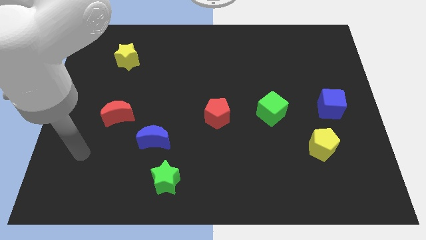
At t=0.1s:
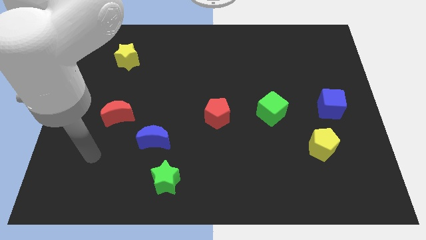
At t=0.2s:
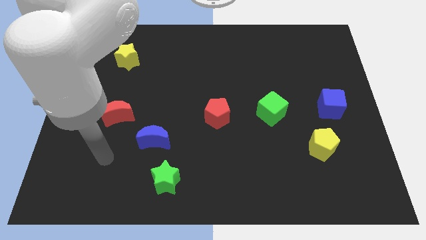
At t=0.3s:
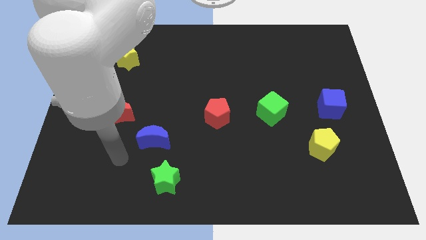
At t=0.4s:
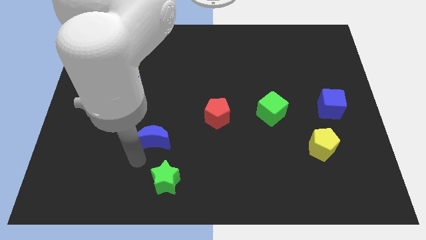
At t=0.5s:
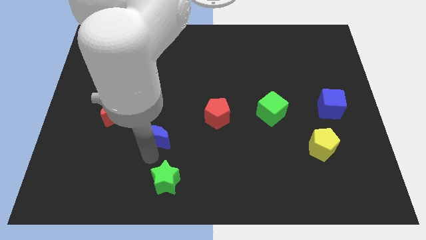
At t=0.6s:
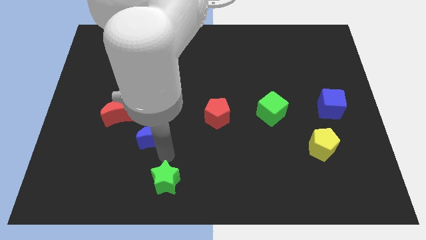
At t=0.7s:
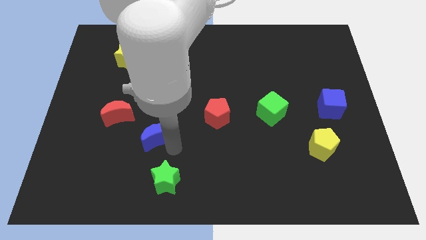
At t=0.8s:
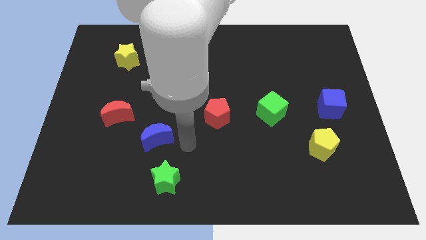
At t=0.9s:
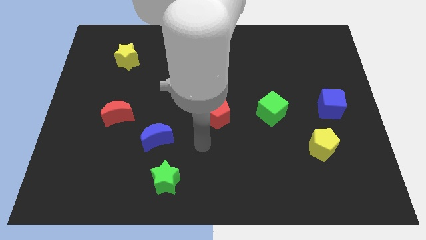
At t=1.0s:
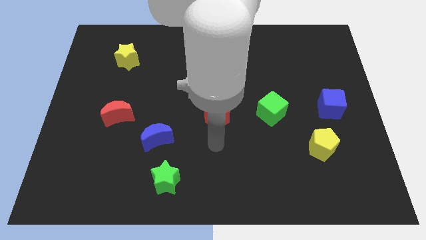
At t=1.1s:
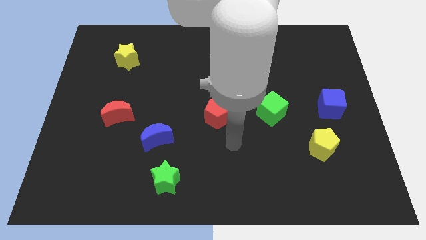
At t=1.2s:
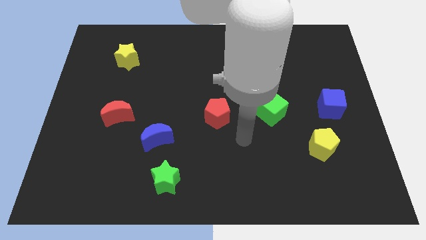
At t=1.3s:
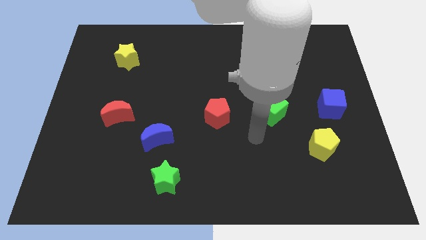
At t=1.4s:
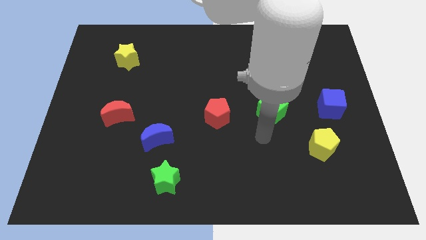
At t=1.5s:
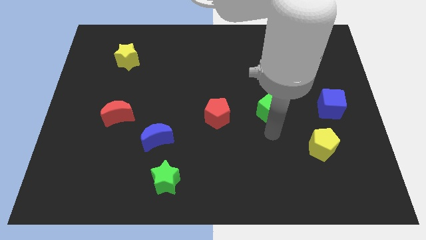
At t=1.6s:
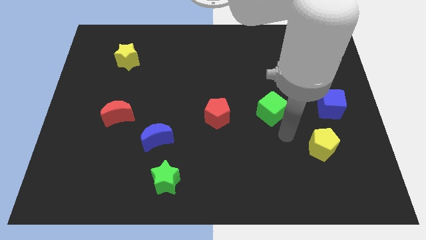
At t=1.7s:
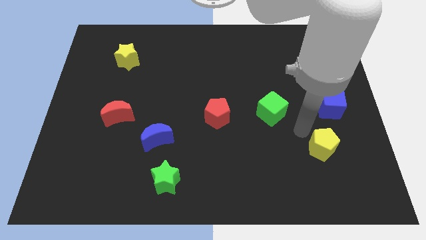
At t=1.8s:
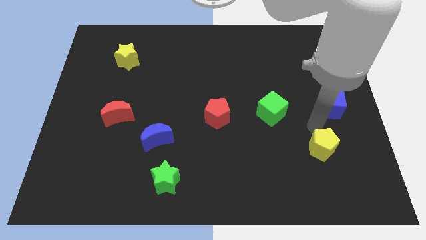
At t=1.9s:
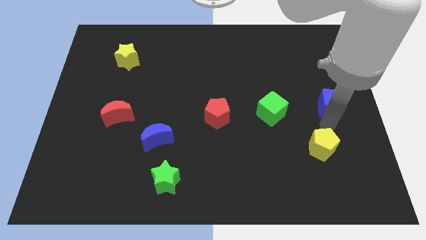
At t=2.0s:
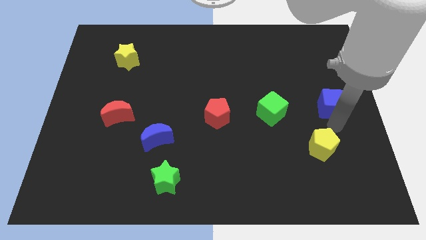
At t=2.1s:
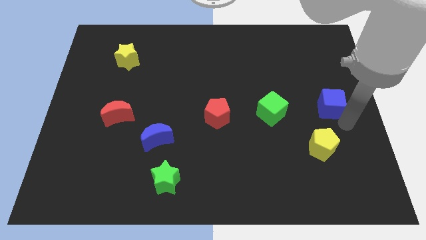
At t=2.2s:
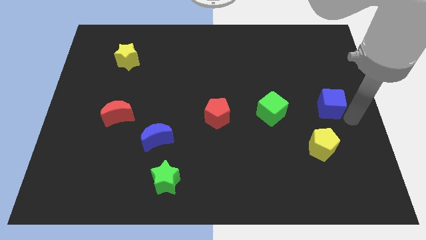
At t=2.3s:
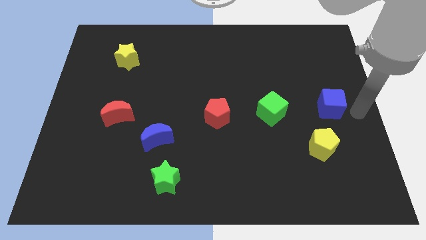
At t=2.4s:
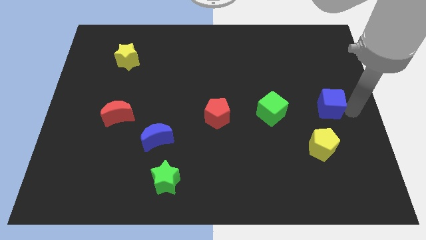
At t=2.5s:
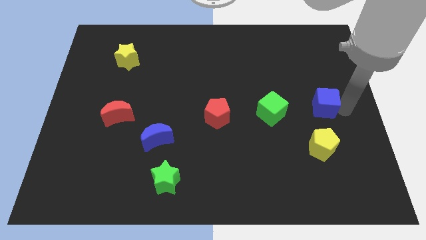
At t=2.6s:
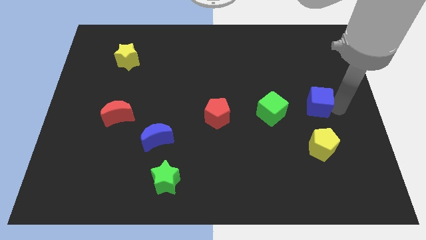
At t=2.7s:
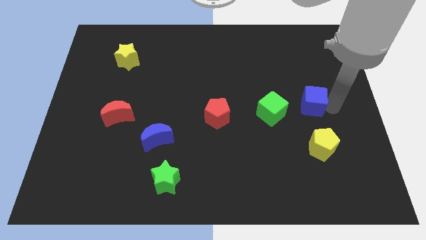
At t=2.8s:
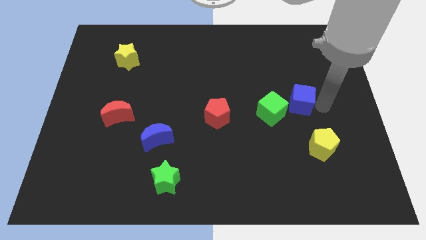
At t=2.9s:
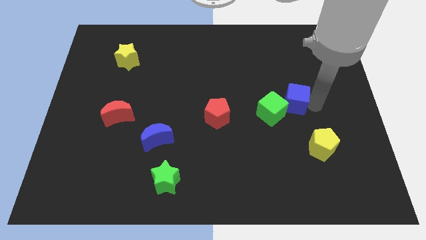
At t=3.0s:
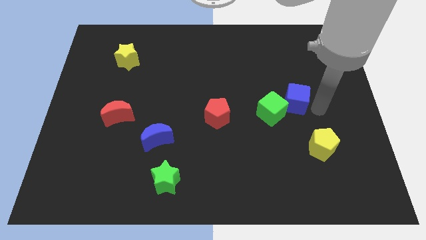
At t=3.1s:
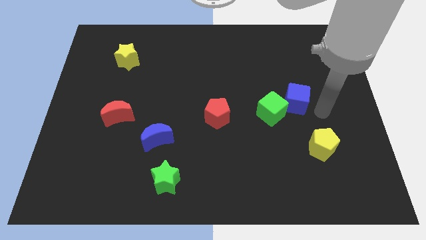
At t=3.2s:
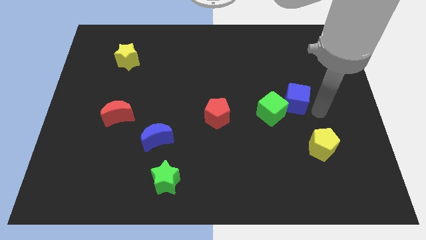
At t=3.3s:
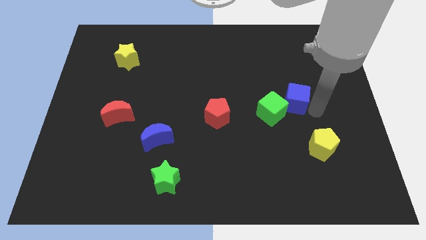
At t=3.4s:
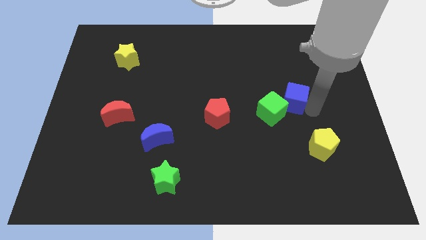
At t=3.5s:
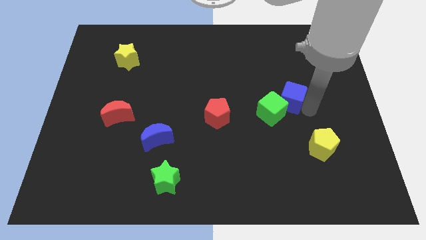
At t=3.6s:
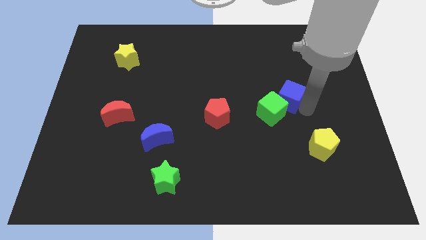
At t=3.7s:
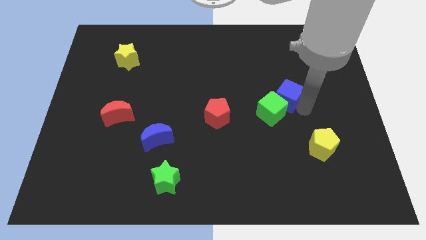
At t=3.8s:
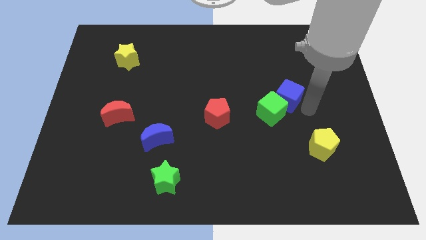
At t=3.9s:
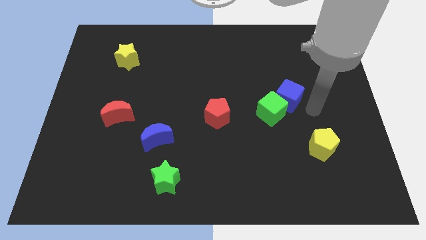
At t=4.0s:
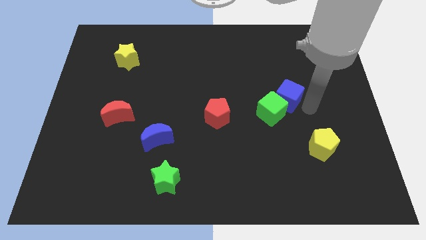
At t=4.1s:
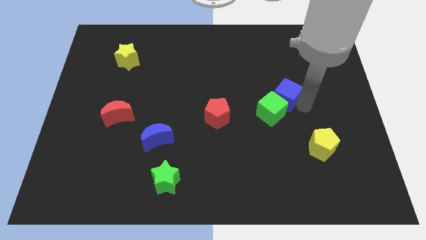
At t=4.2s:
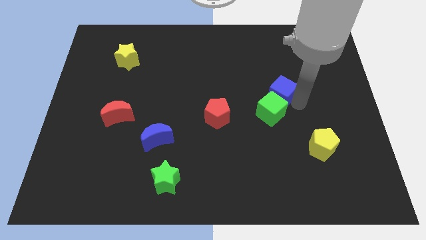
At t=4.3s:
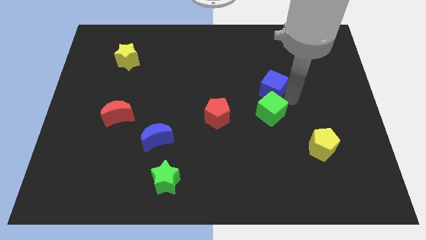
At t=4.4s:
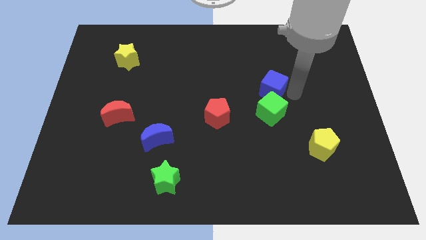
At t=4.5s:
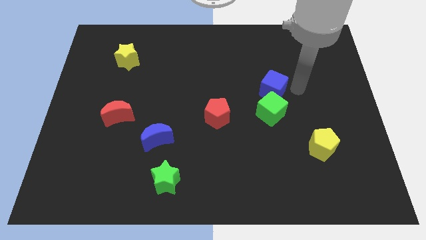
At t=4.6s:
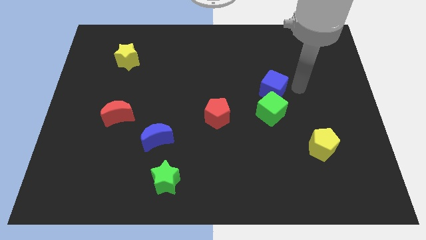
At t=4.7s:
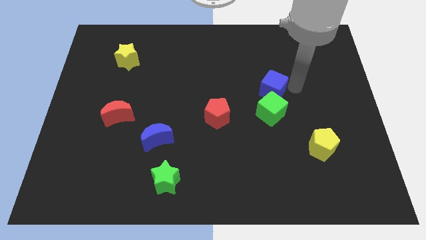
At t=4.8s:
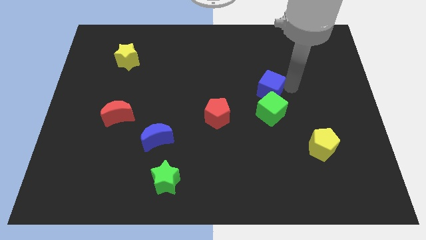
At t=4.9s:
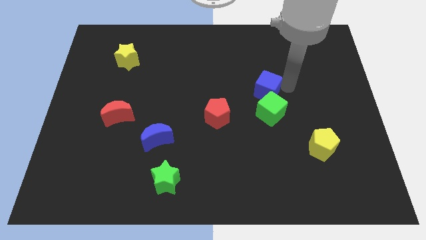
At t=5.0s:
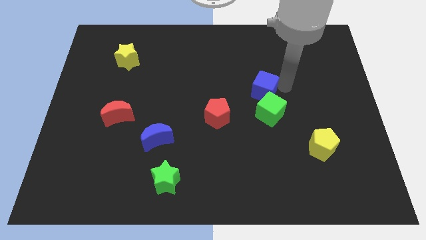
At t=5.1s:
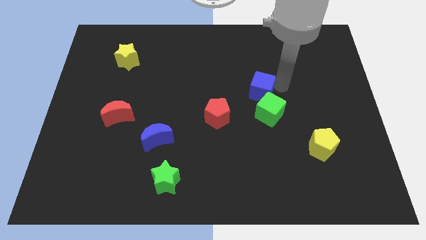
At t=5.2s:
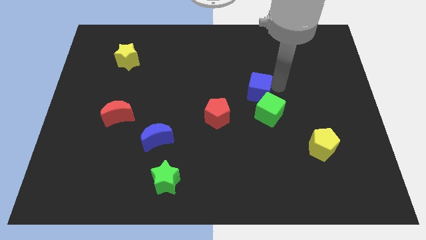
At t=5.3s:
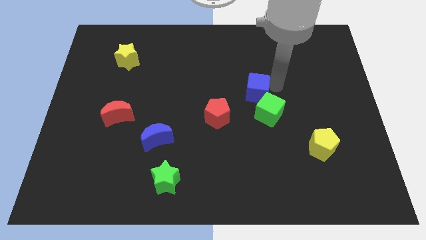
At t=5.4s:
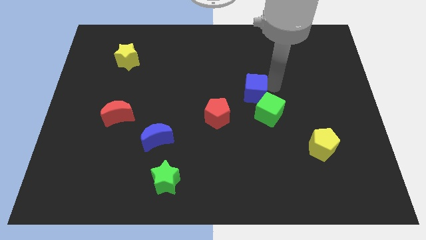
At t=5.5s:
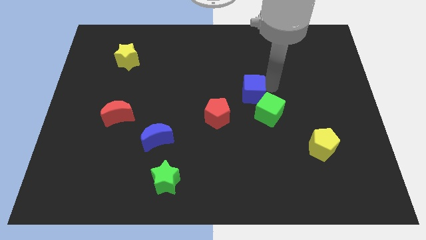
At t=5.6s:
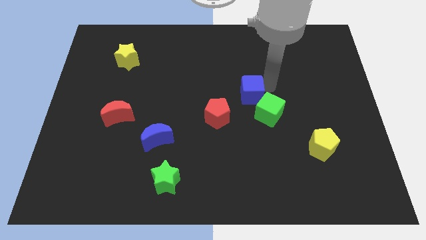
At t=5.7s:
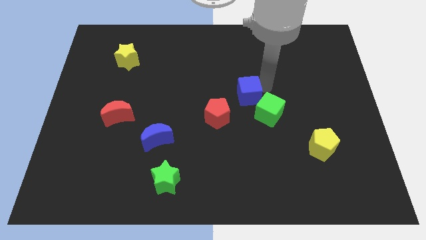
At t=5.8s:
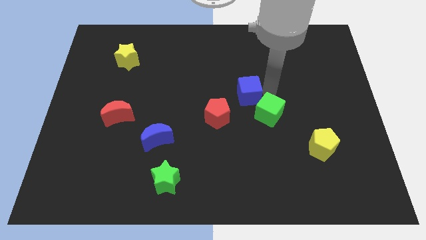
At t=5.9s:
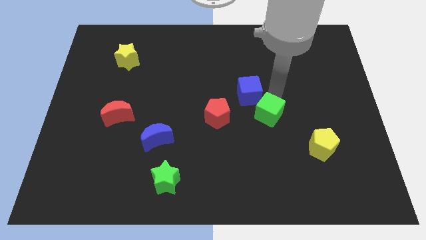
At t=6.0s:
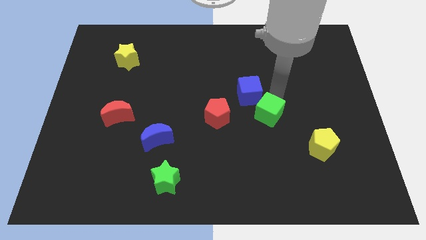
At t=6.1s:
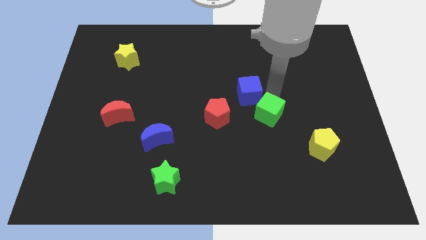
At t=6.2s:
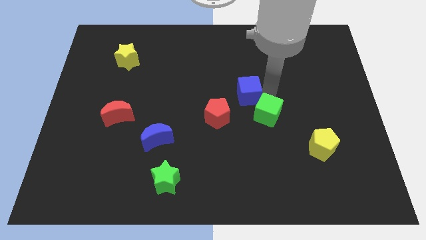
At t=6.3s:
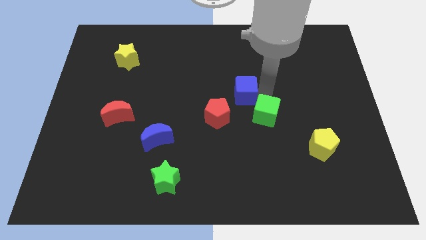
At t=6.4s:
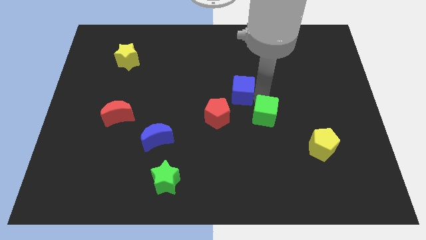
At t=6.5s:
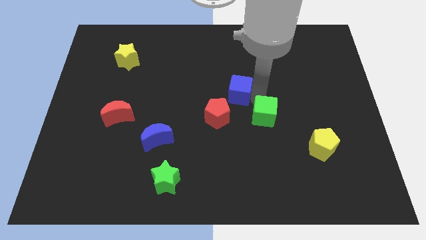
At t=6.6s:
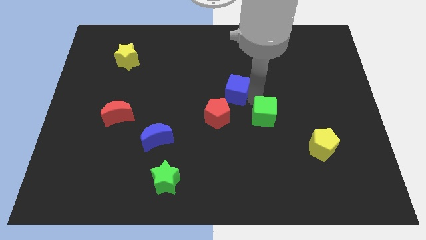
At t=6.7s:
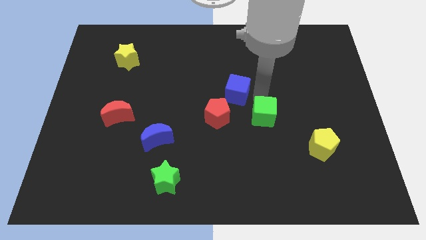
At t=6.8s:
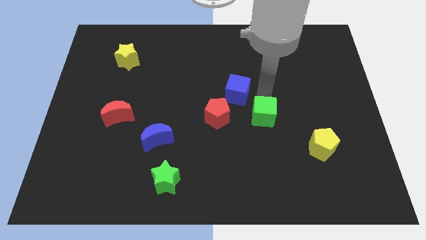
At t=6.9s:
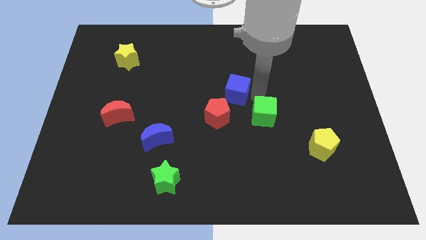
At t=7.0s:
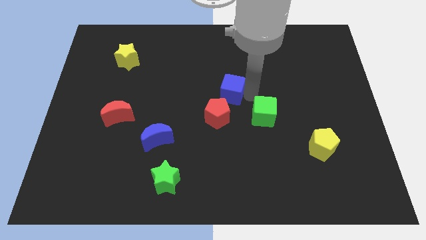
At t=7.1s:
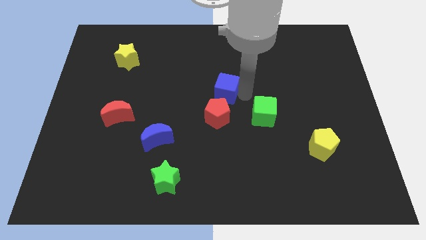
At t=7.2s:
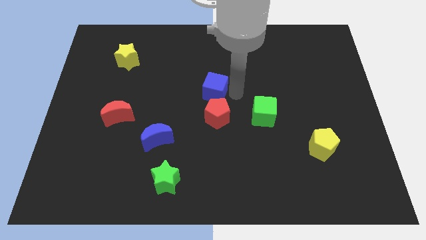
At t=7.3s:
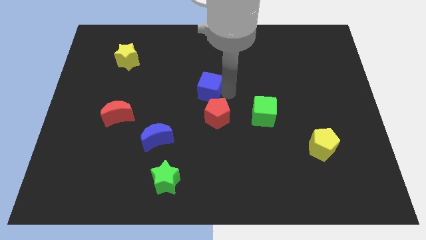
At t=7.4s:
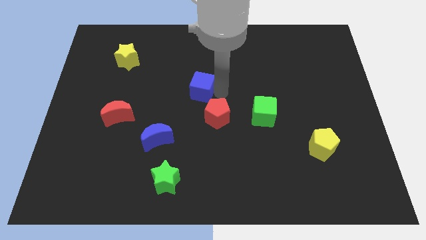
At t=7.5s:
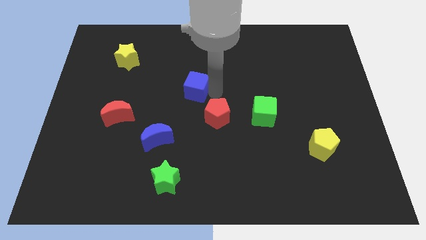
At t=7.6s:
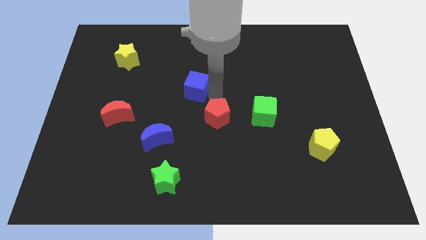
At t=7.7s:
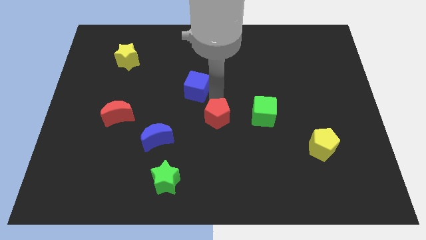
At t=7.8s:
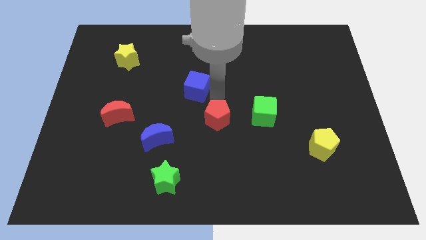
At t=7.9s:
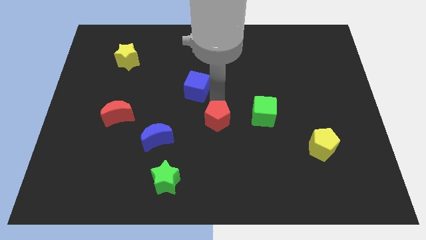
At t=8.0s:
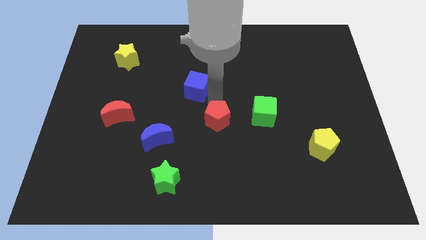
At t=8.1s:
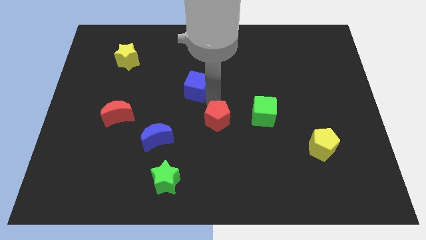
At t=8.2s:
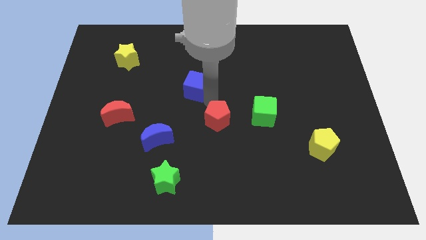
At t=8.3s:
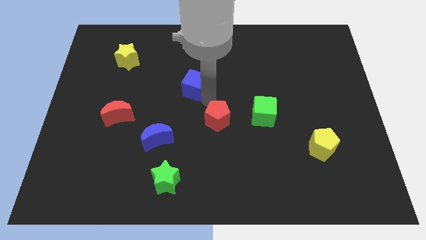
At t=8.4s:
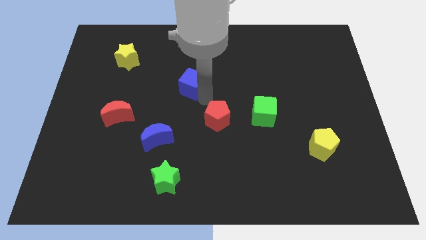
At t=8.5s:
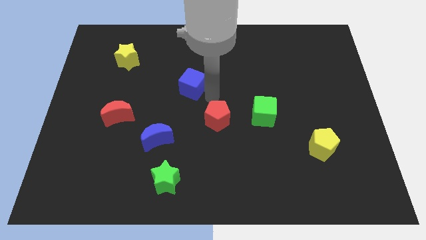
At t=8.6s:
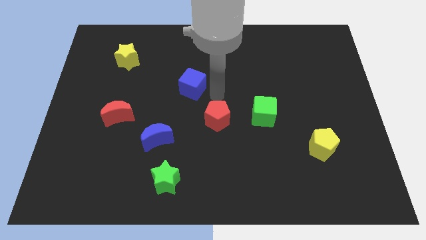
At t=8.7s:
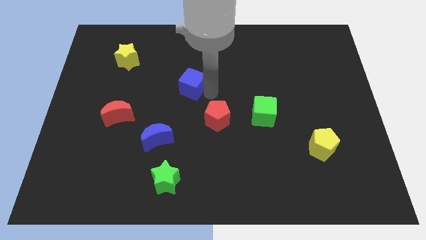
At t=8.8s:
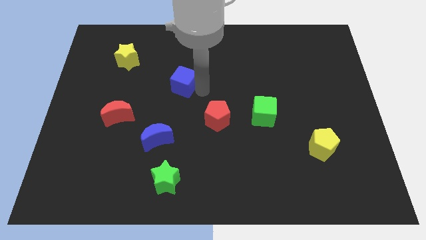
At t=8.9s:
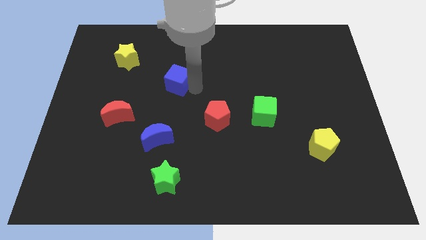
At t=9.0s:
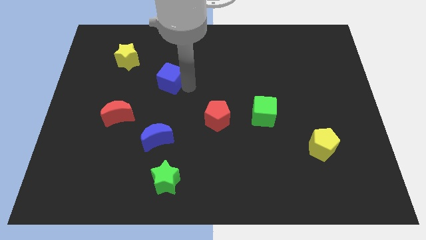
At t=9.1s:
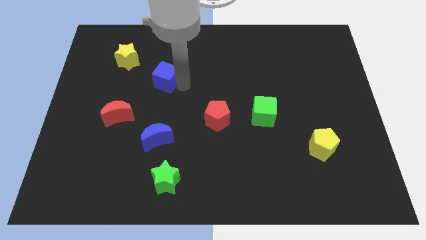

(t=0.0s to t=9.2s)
put the blue cube diagonally down and to the right of the yellow star
